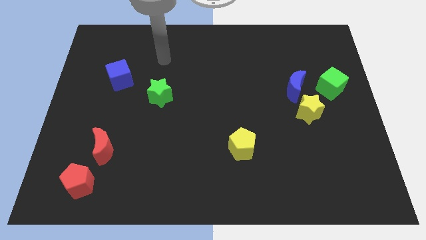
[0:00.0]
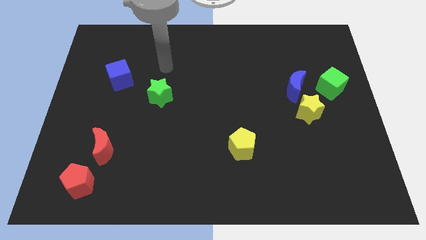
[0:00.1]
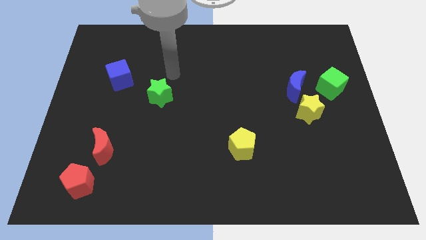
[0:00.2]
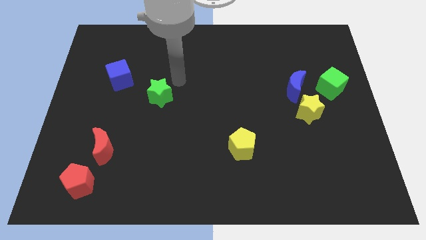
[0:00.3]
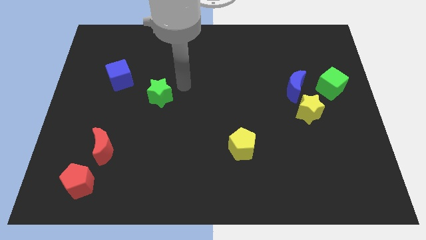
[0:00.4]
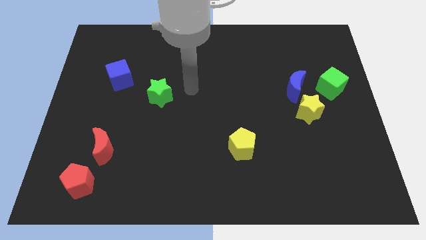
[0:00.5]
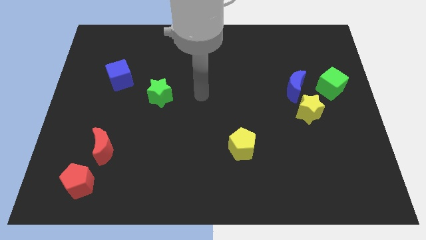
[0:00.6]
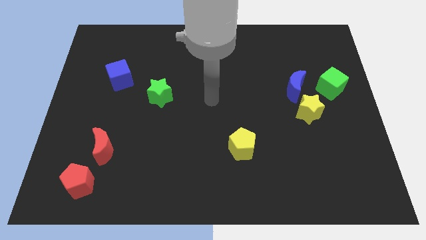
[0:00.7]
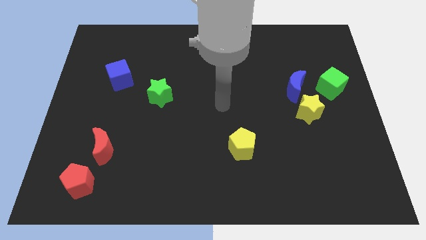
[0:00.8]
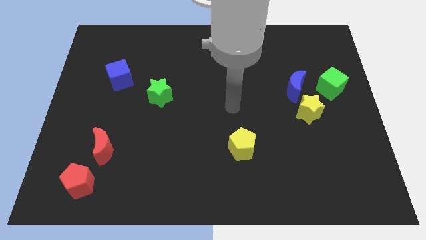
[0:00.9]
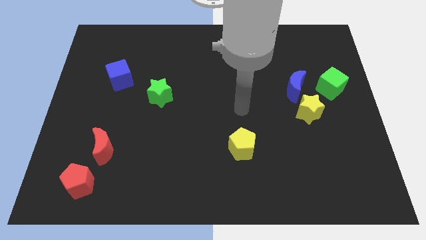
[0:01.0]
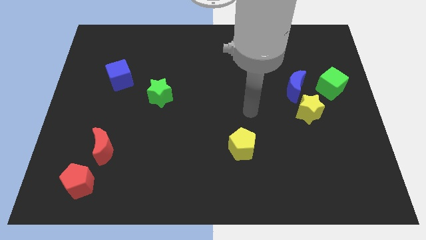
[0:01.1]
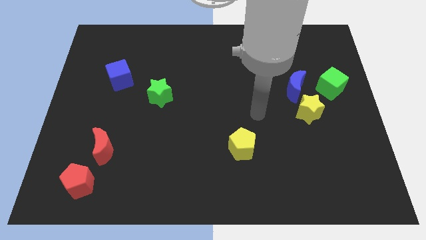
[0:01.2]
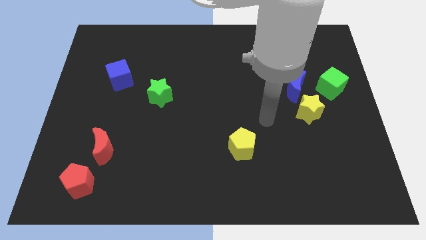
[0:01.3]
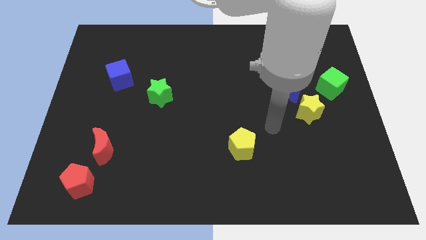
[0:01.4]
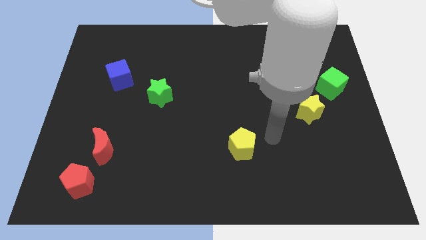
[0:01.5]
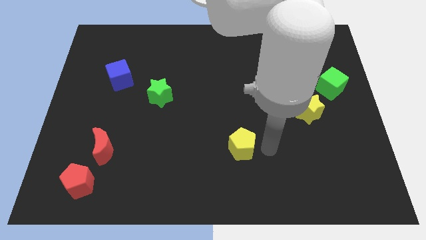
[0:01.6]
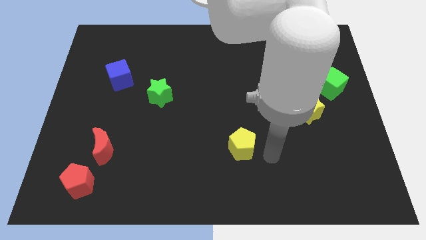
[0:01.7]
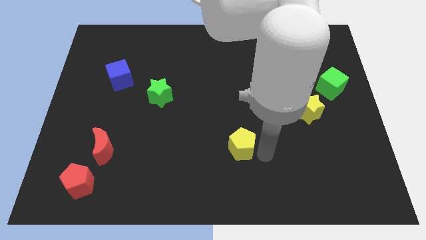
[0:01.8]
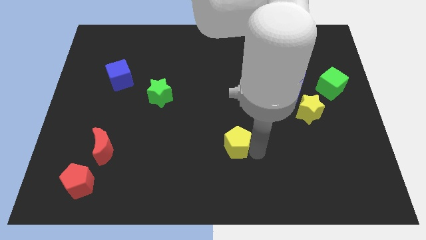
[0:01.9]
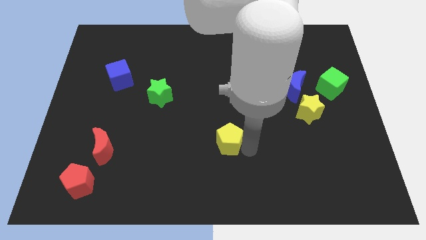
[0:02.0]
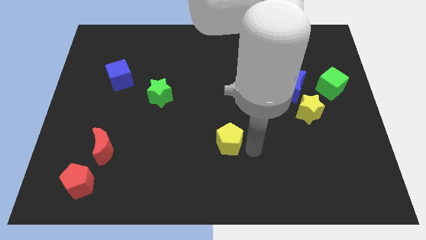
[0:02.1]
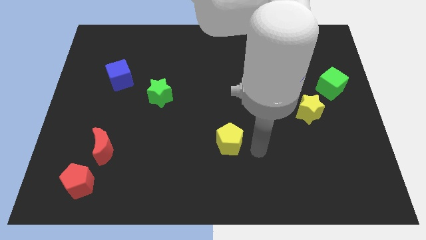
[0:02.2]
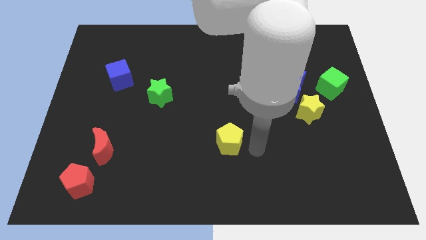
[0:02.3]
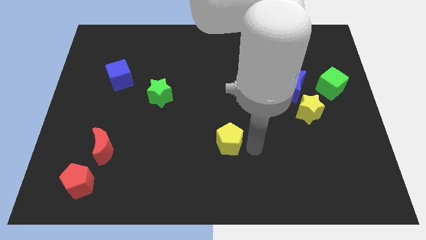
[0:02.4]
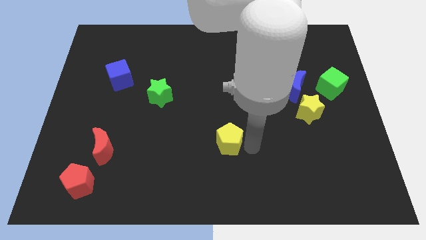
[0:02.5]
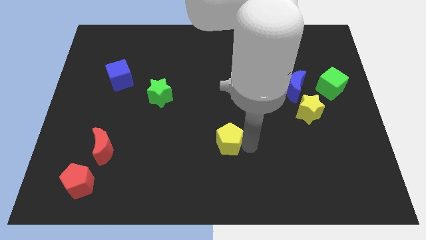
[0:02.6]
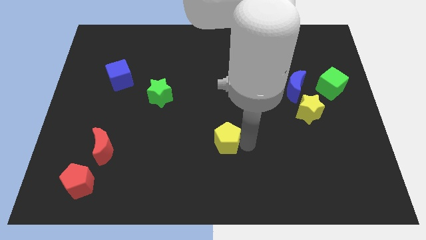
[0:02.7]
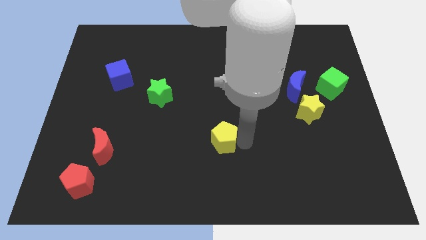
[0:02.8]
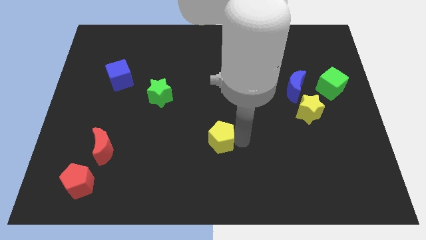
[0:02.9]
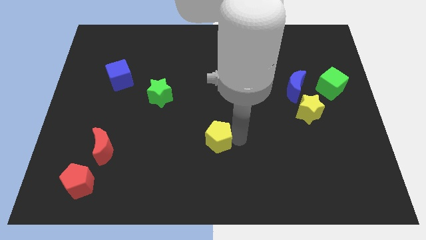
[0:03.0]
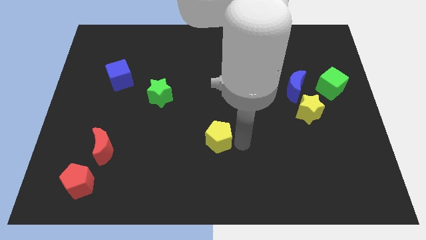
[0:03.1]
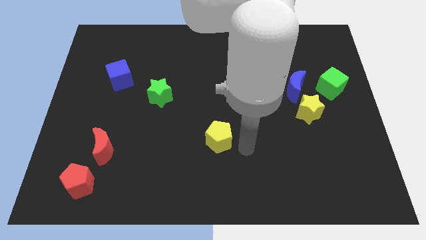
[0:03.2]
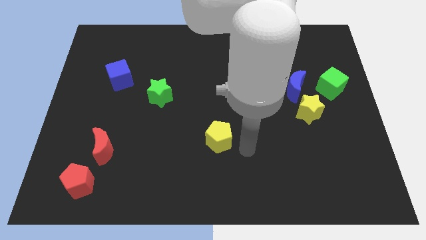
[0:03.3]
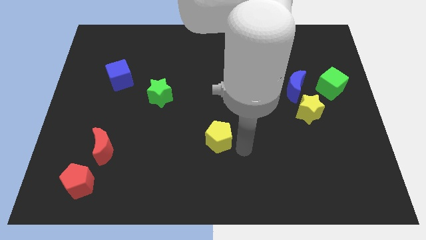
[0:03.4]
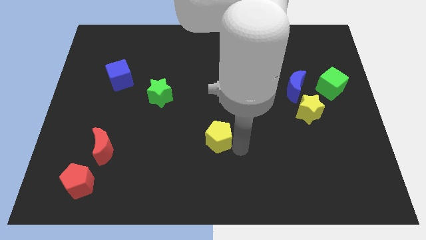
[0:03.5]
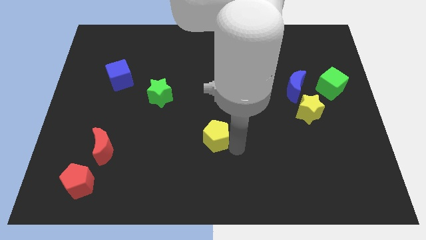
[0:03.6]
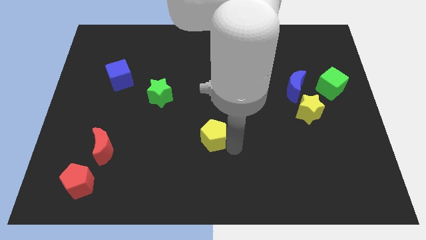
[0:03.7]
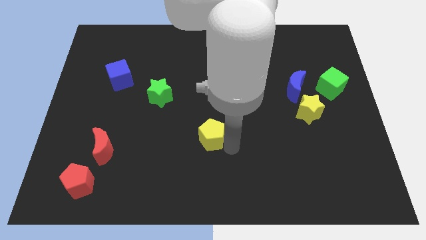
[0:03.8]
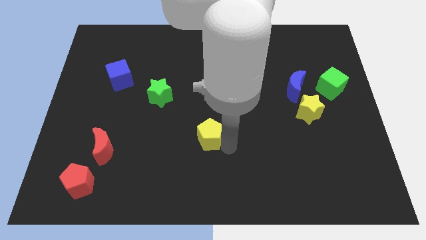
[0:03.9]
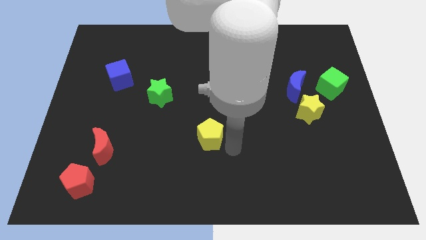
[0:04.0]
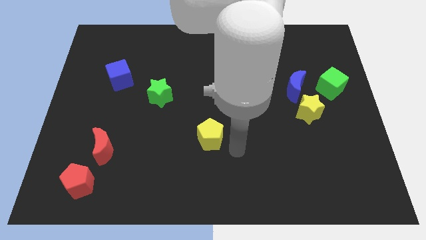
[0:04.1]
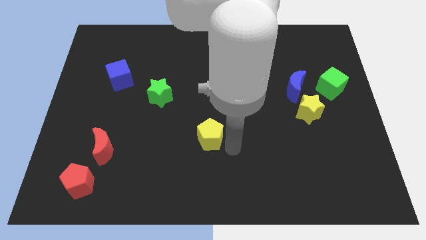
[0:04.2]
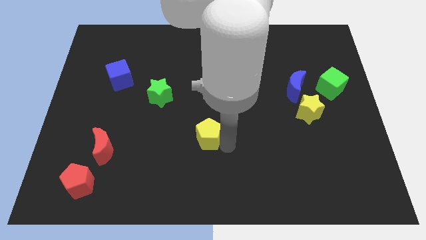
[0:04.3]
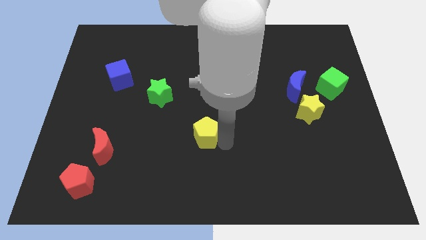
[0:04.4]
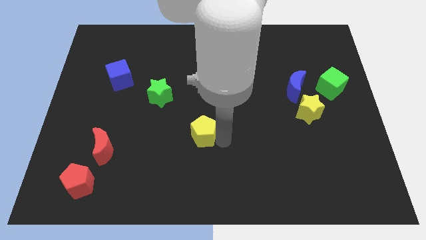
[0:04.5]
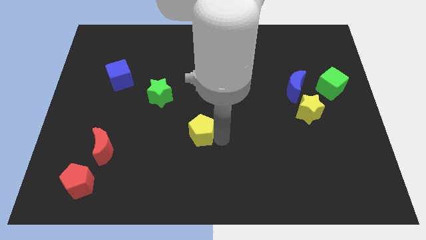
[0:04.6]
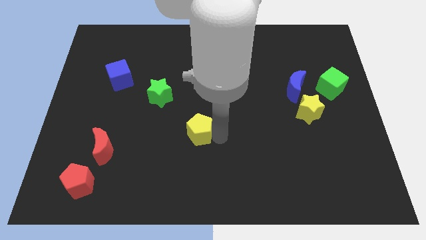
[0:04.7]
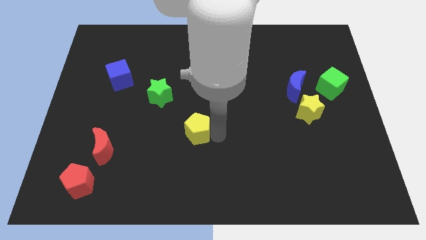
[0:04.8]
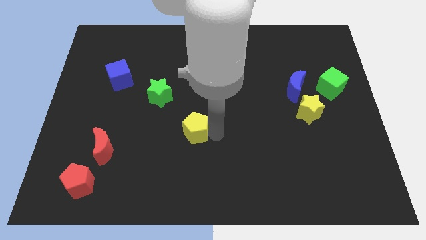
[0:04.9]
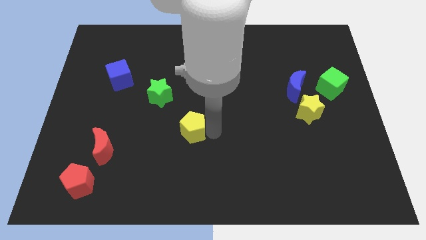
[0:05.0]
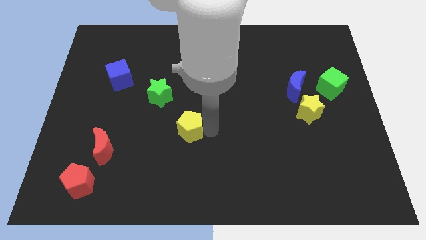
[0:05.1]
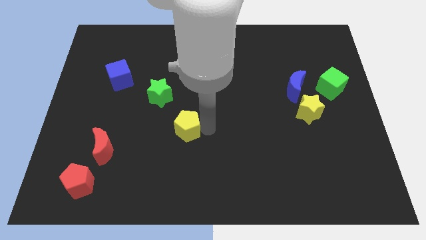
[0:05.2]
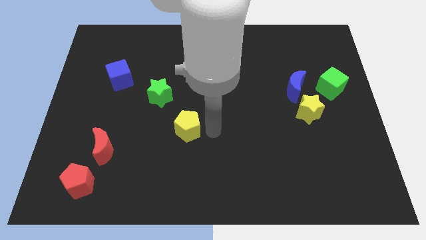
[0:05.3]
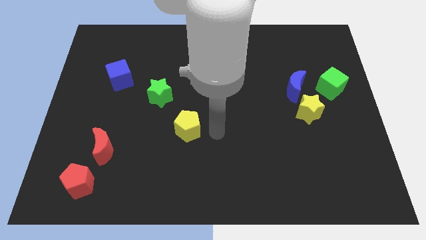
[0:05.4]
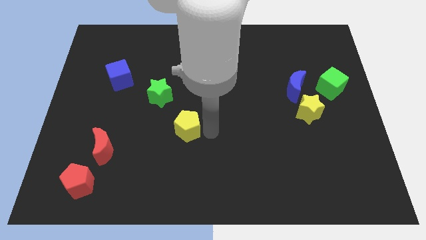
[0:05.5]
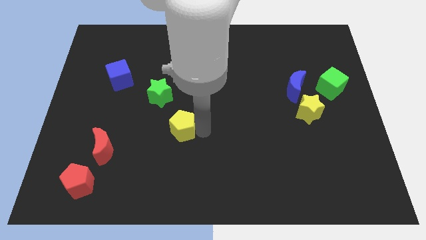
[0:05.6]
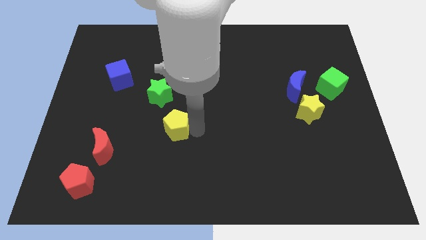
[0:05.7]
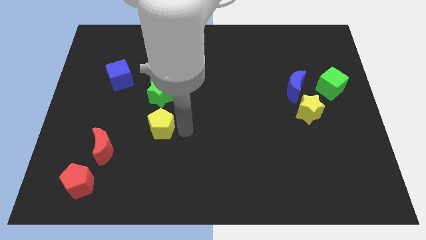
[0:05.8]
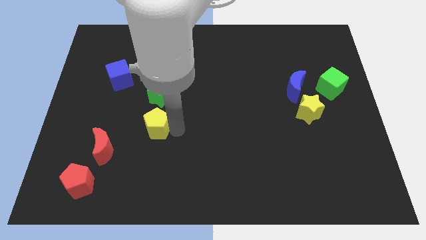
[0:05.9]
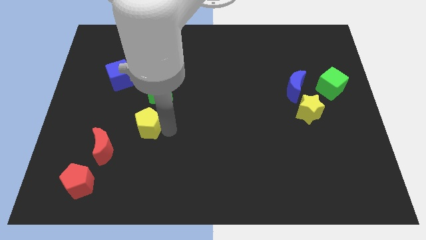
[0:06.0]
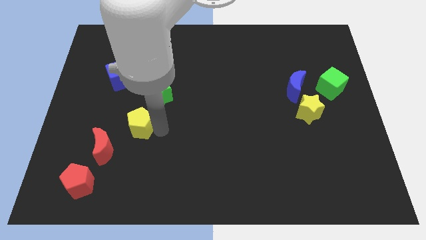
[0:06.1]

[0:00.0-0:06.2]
slide the yellow pentagon to the bottom left of the green star

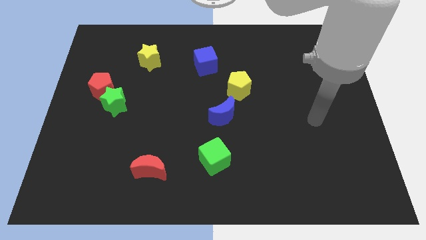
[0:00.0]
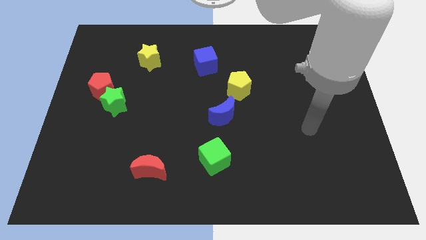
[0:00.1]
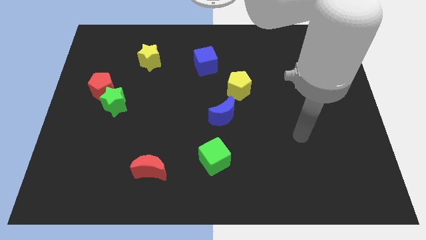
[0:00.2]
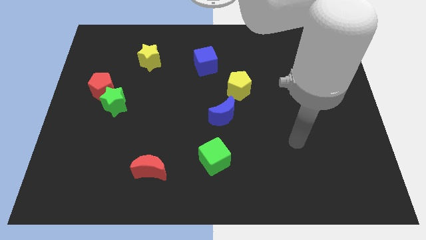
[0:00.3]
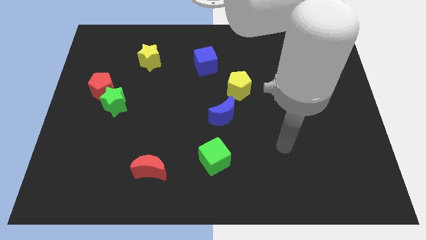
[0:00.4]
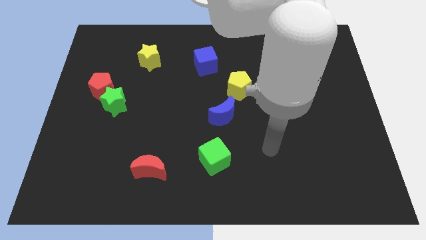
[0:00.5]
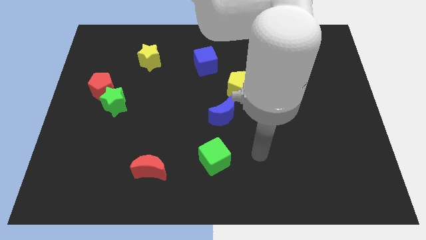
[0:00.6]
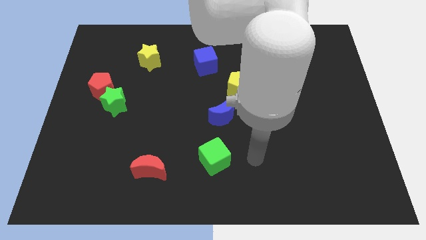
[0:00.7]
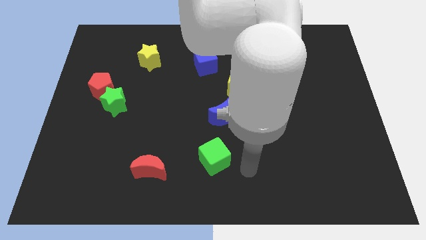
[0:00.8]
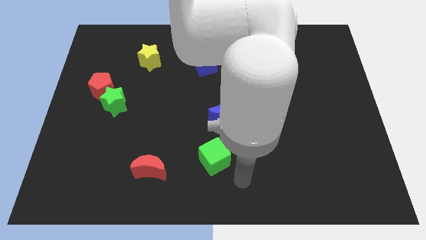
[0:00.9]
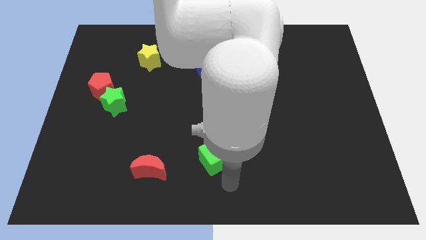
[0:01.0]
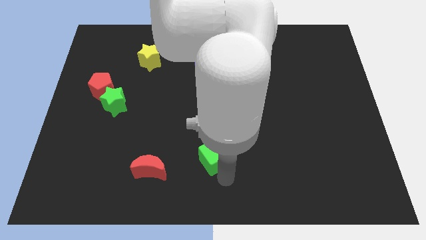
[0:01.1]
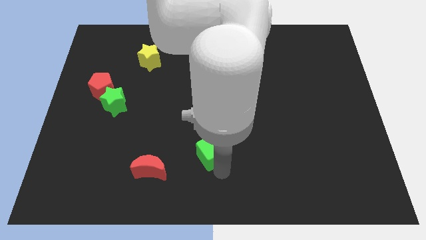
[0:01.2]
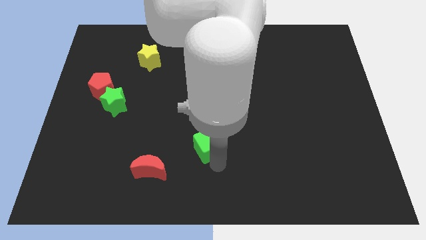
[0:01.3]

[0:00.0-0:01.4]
slide the green cube diagonally down and to the left of the blue moon
